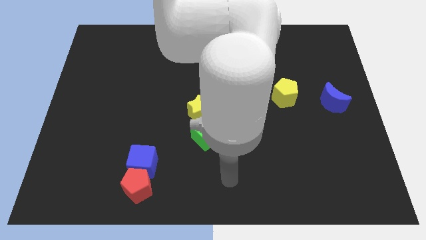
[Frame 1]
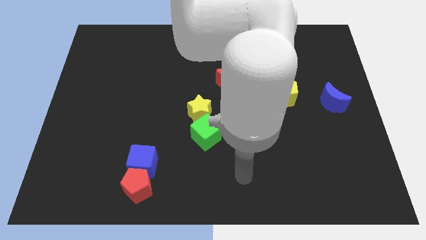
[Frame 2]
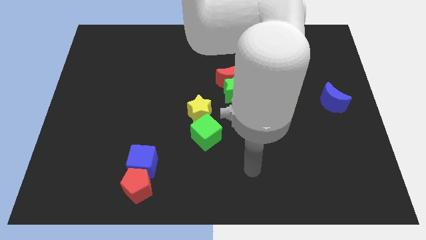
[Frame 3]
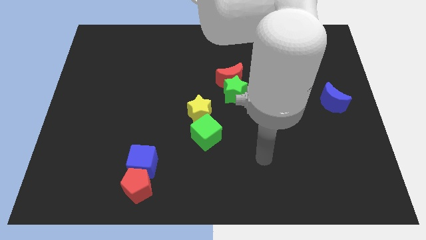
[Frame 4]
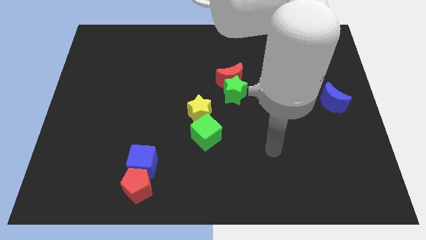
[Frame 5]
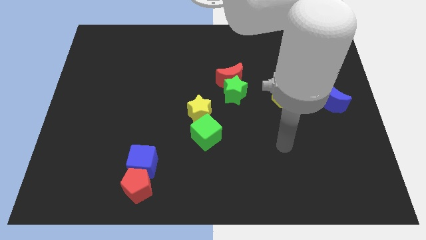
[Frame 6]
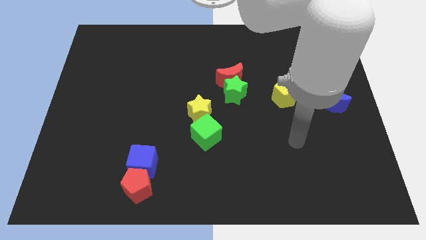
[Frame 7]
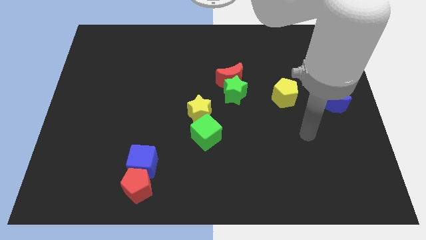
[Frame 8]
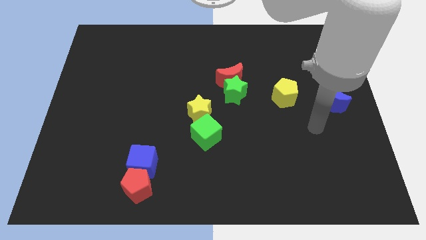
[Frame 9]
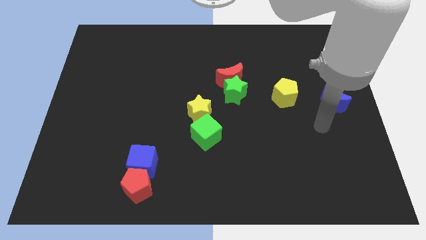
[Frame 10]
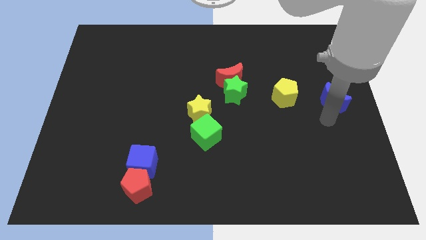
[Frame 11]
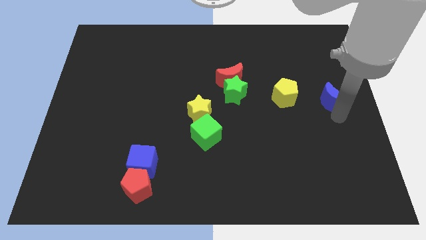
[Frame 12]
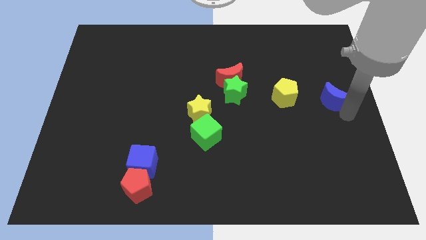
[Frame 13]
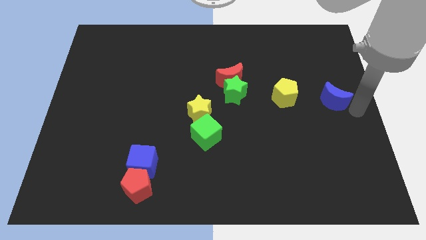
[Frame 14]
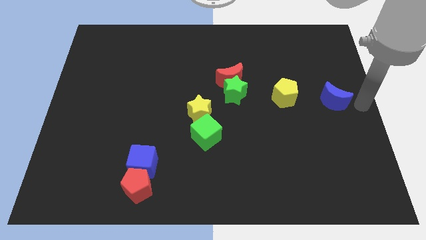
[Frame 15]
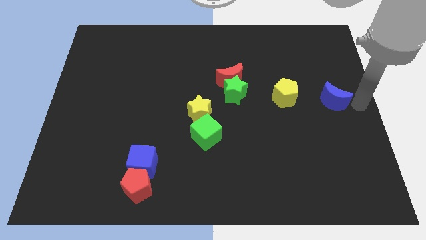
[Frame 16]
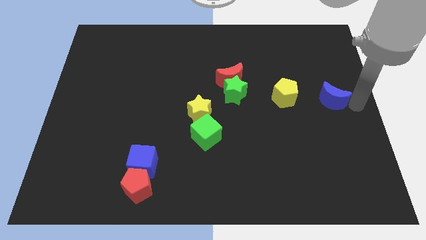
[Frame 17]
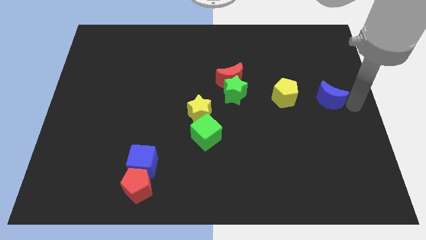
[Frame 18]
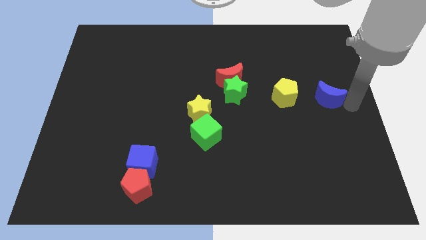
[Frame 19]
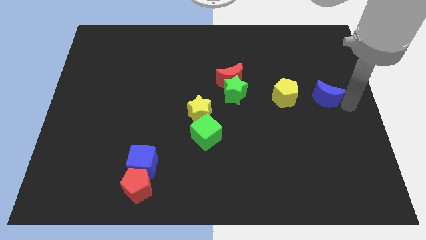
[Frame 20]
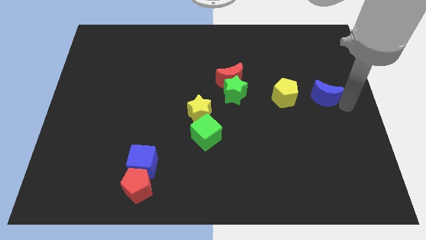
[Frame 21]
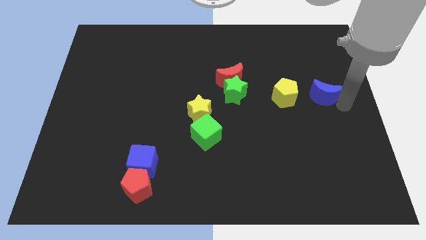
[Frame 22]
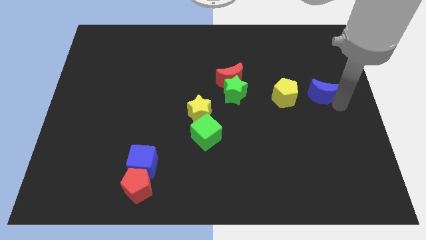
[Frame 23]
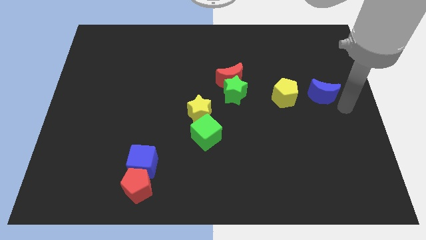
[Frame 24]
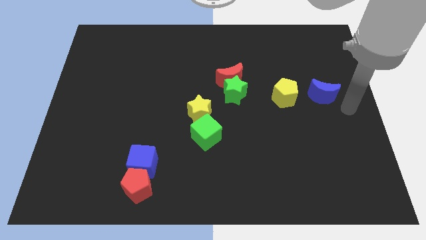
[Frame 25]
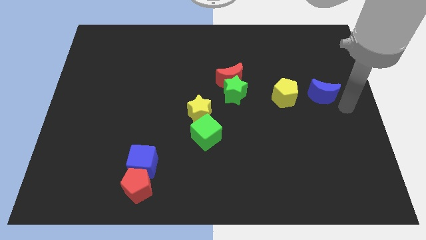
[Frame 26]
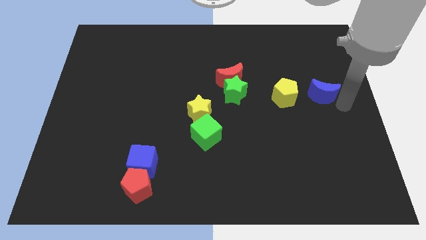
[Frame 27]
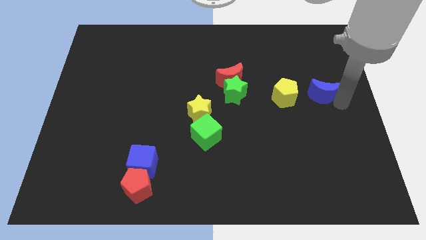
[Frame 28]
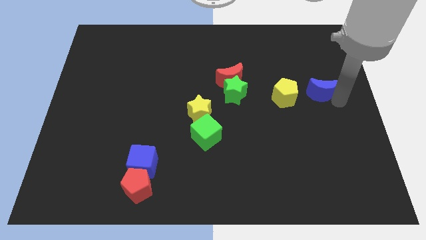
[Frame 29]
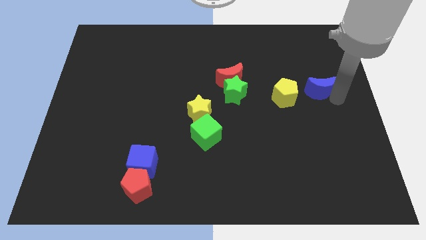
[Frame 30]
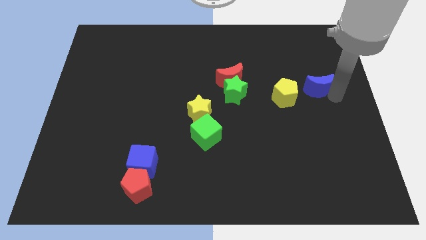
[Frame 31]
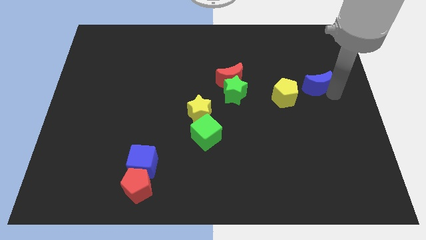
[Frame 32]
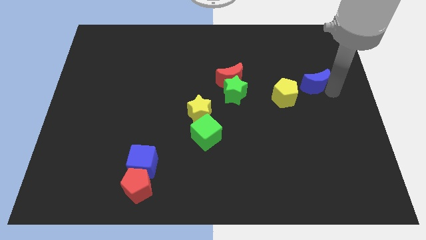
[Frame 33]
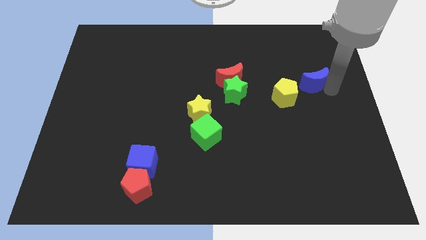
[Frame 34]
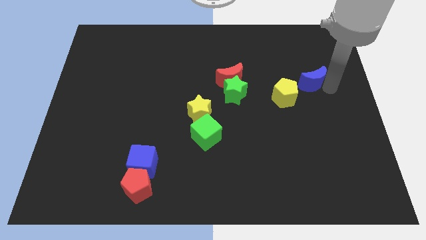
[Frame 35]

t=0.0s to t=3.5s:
push the blue moon somewhat upwards and then to the left

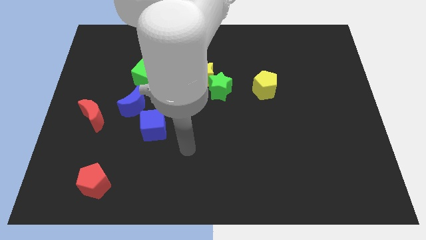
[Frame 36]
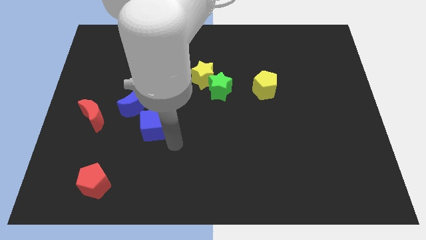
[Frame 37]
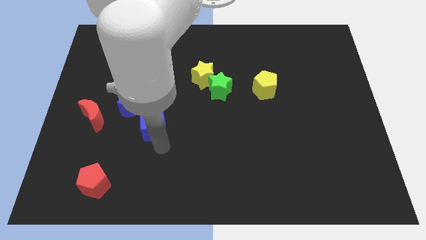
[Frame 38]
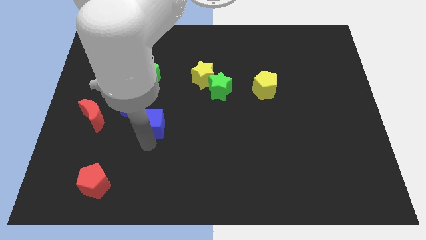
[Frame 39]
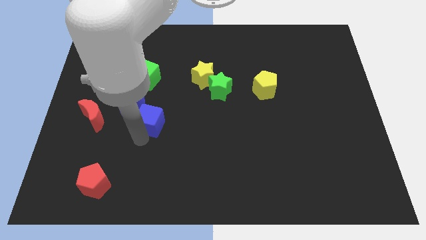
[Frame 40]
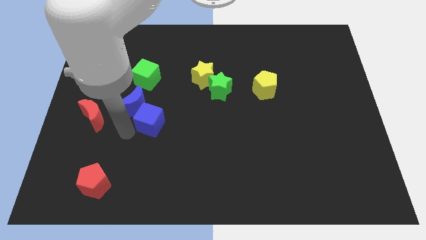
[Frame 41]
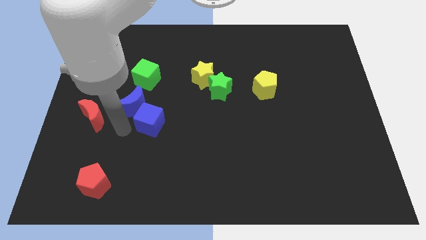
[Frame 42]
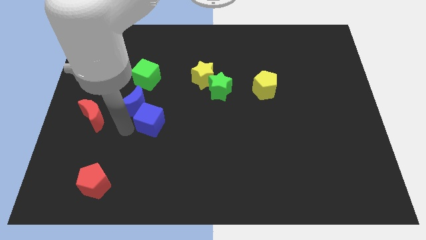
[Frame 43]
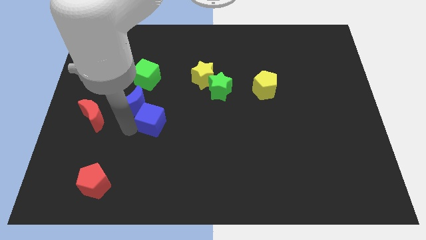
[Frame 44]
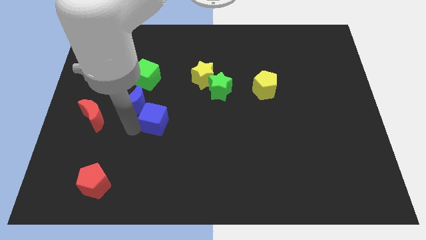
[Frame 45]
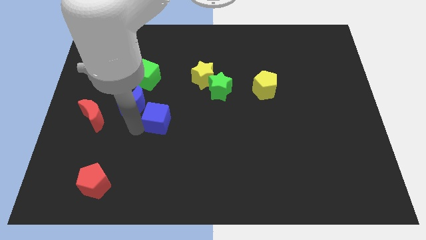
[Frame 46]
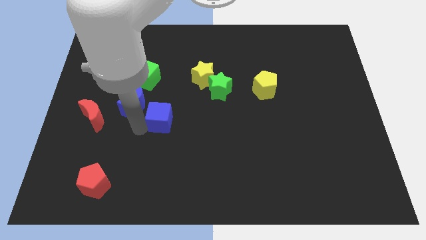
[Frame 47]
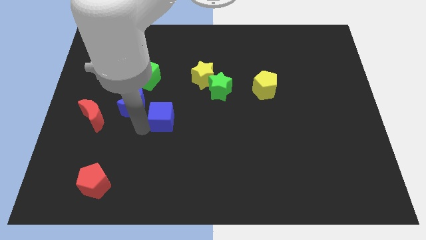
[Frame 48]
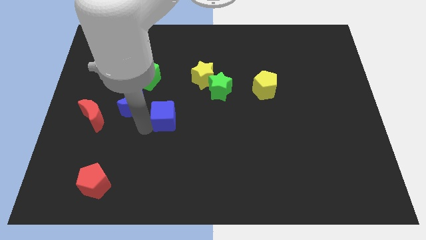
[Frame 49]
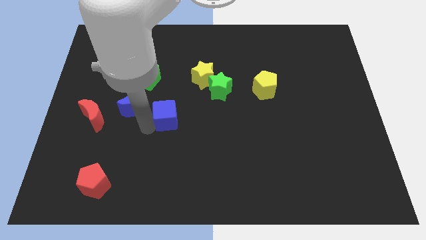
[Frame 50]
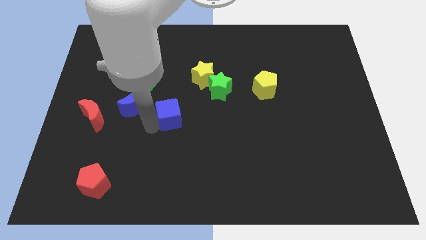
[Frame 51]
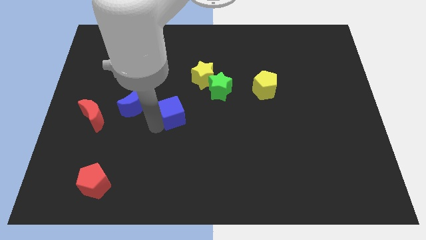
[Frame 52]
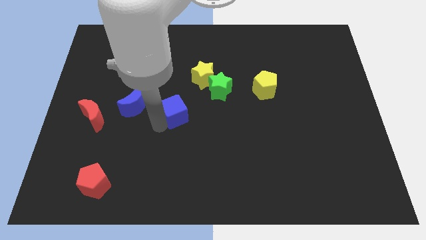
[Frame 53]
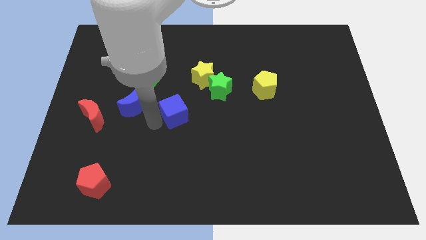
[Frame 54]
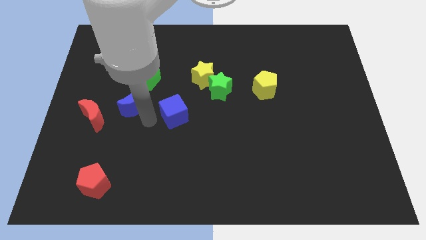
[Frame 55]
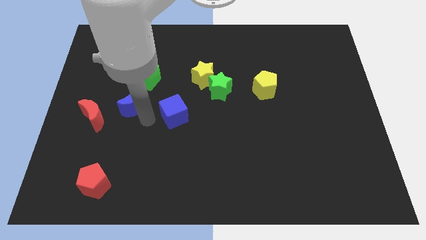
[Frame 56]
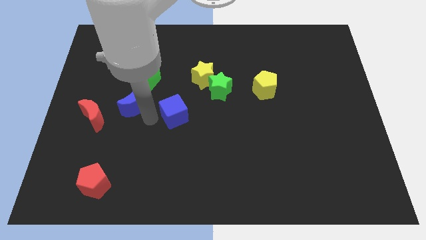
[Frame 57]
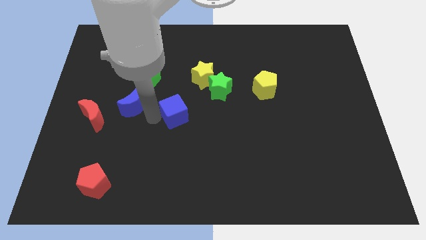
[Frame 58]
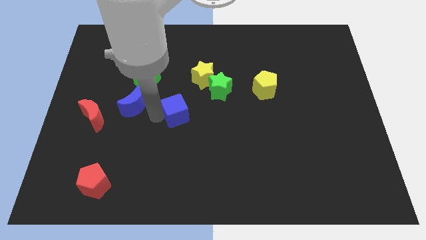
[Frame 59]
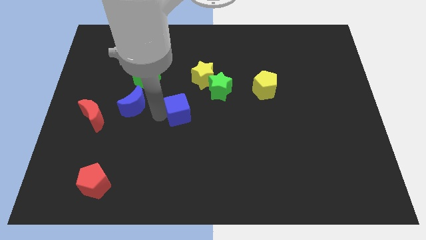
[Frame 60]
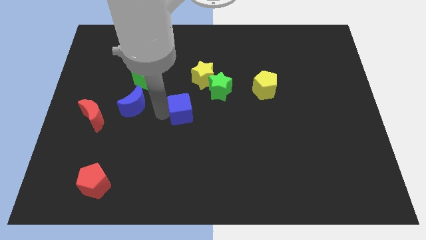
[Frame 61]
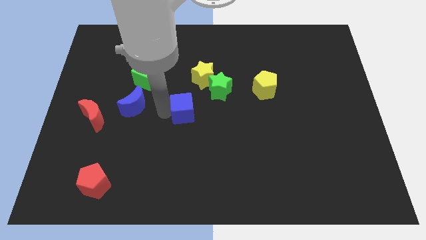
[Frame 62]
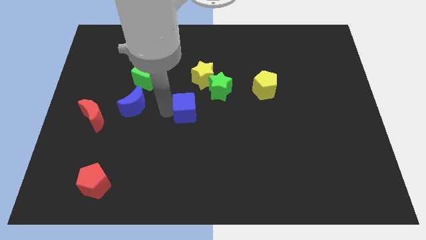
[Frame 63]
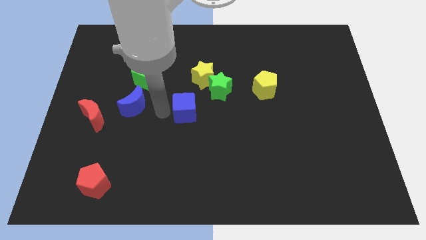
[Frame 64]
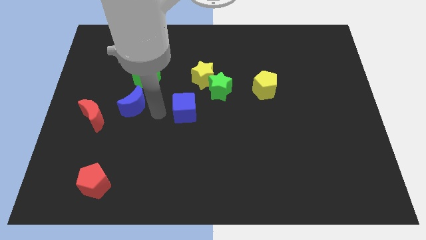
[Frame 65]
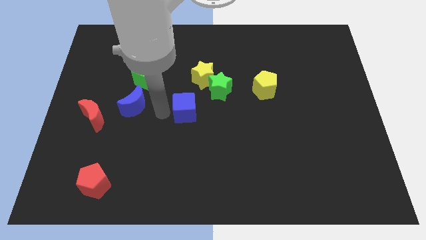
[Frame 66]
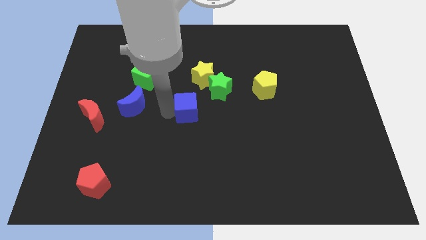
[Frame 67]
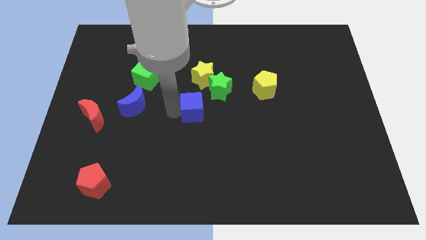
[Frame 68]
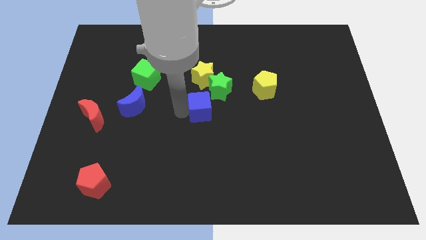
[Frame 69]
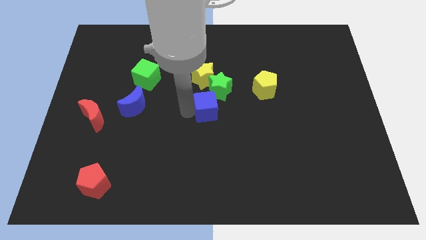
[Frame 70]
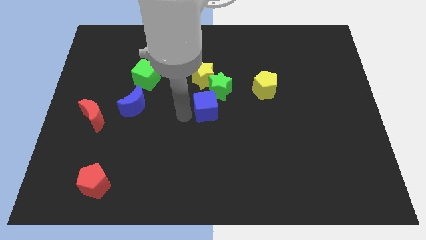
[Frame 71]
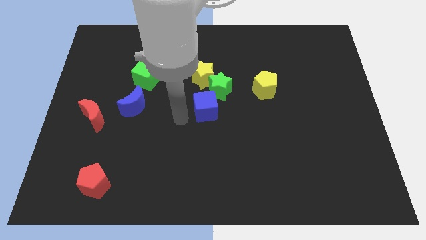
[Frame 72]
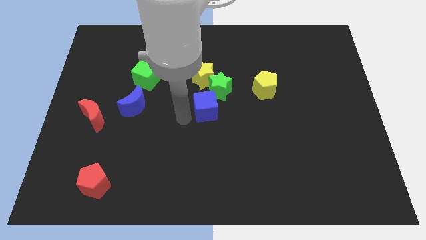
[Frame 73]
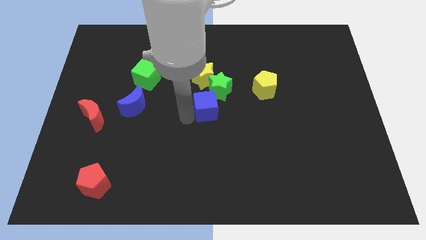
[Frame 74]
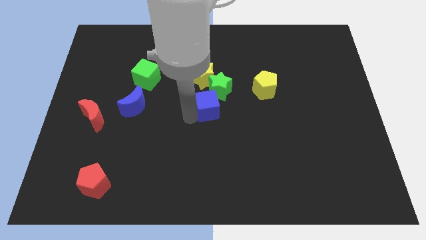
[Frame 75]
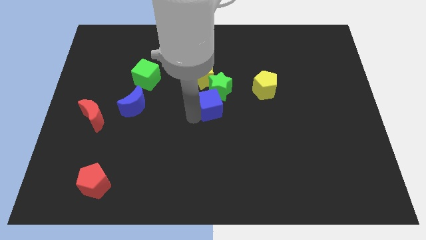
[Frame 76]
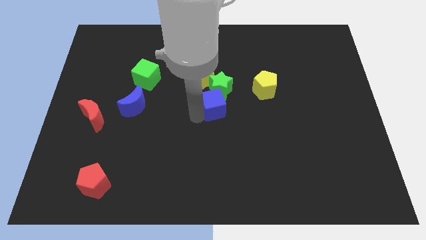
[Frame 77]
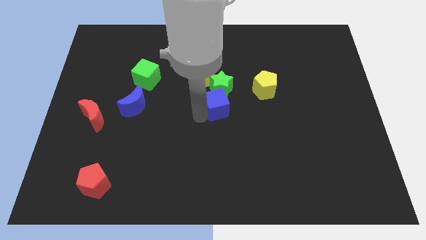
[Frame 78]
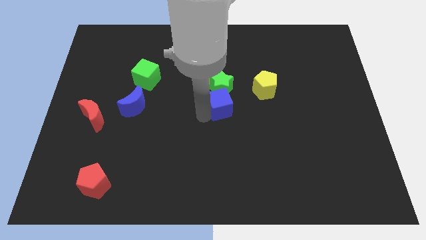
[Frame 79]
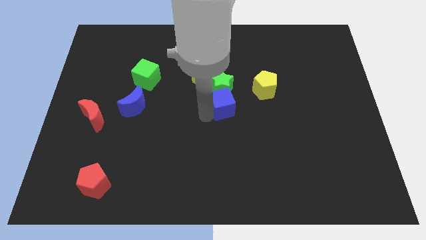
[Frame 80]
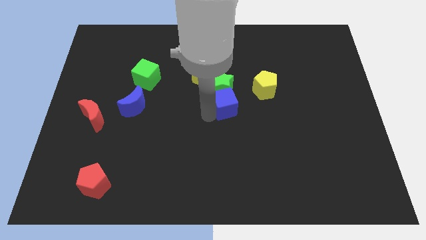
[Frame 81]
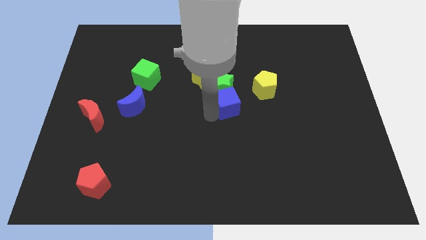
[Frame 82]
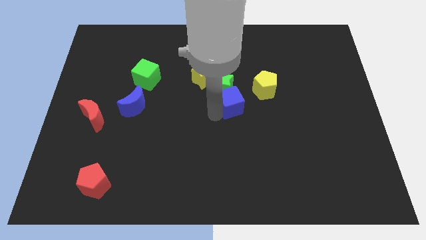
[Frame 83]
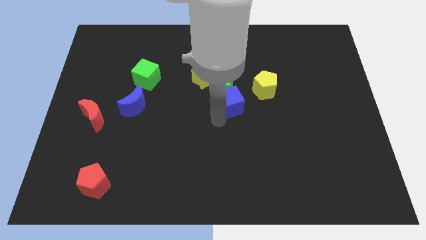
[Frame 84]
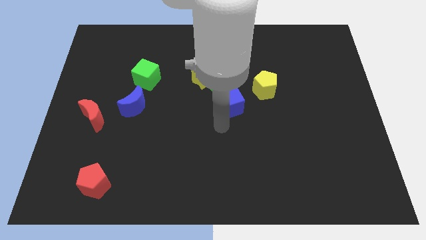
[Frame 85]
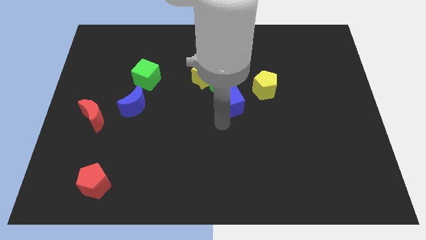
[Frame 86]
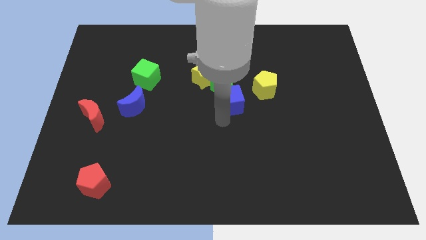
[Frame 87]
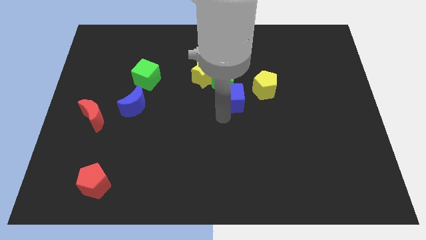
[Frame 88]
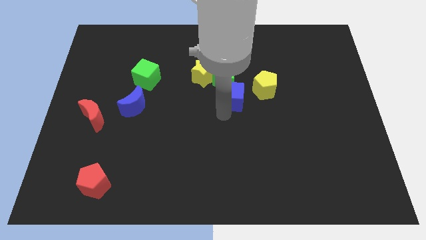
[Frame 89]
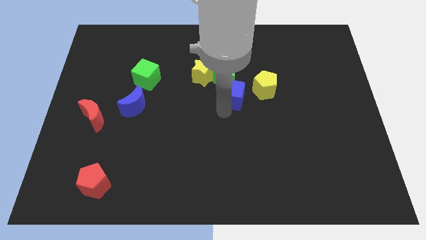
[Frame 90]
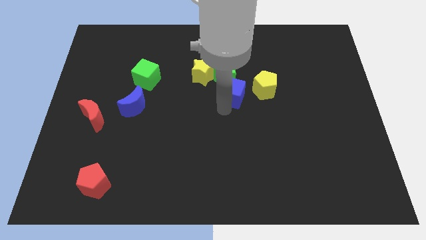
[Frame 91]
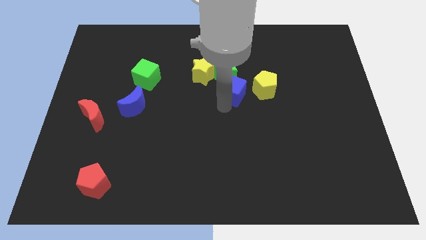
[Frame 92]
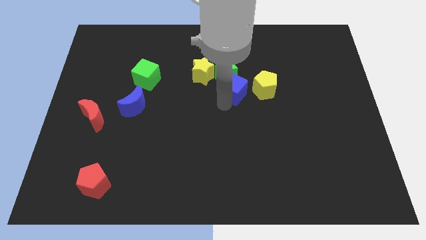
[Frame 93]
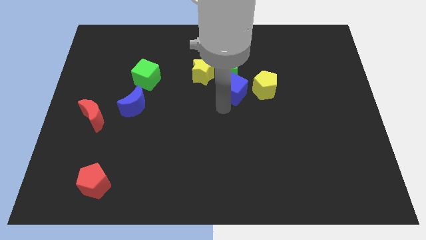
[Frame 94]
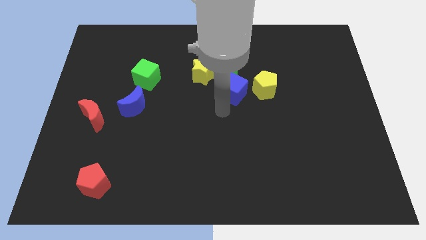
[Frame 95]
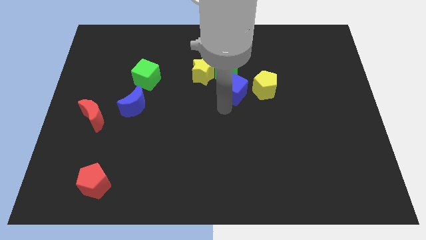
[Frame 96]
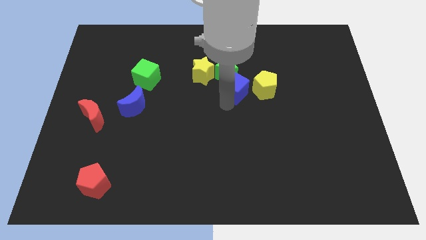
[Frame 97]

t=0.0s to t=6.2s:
push the blue cube up and to the right
